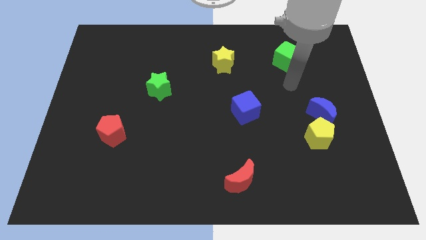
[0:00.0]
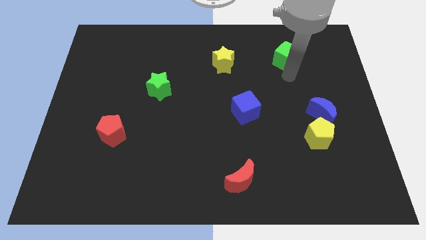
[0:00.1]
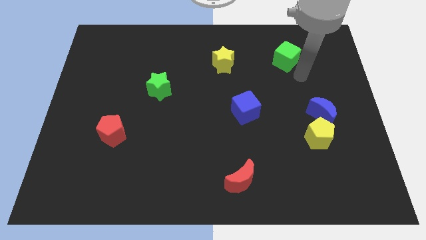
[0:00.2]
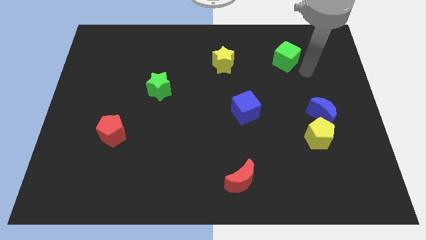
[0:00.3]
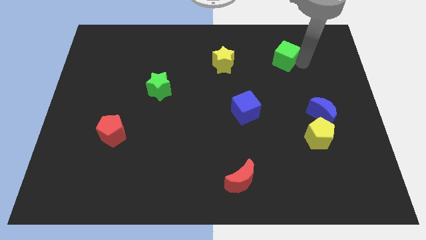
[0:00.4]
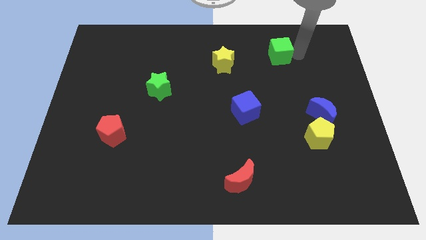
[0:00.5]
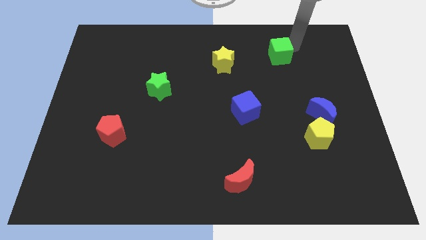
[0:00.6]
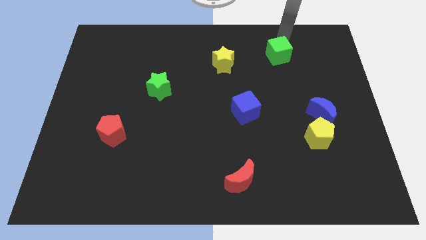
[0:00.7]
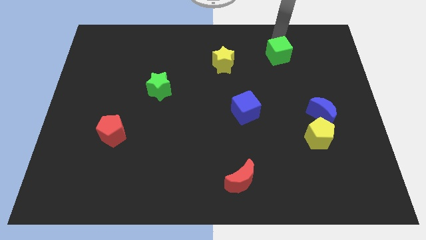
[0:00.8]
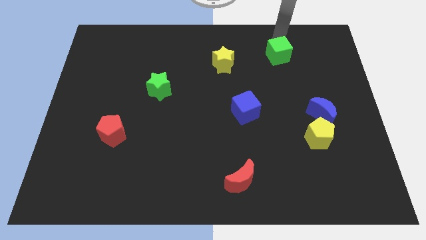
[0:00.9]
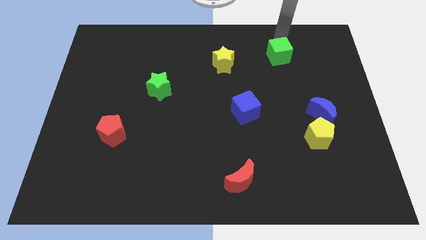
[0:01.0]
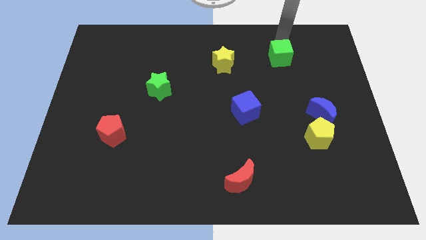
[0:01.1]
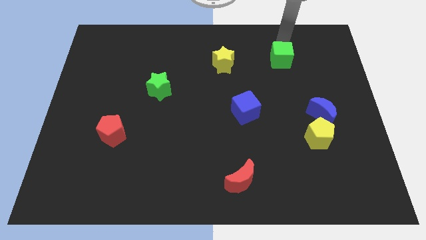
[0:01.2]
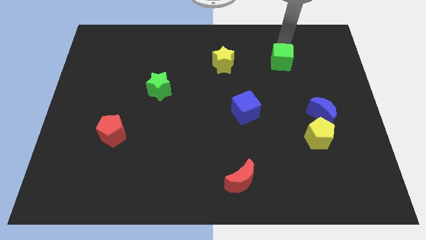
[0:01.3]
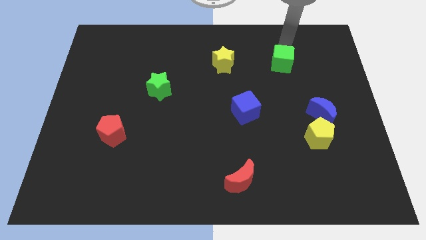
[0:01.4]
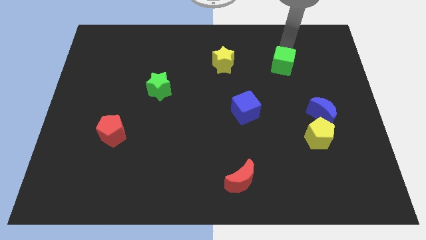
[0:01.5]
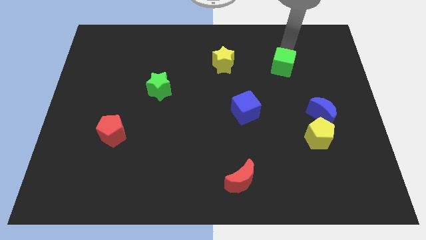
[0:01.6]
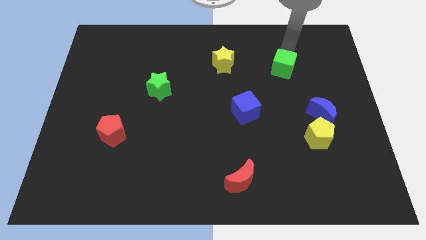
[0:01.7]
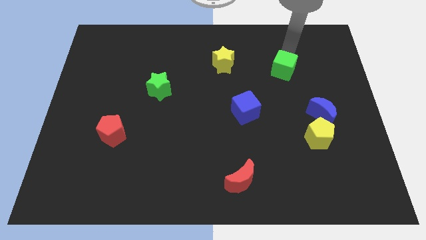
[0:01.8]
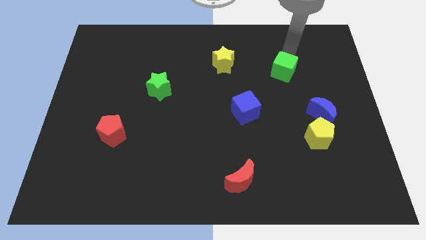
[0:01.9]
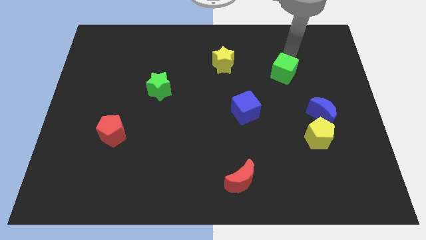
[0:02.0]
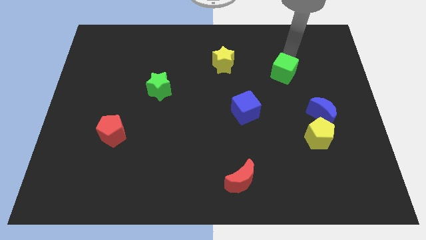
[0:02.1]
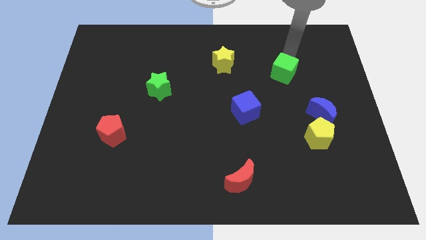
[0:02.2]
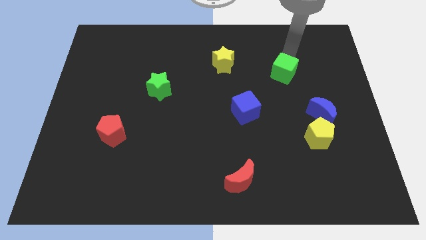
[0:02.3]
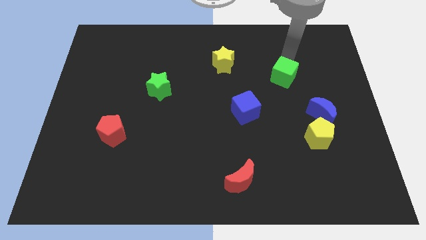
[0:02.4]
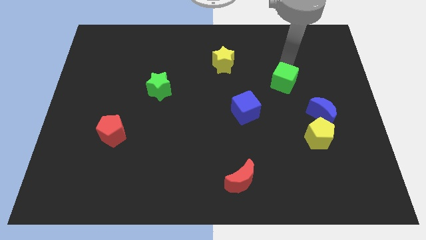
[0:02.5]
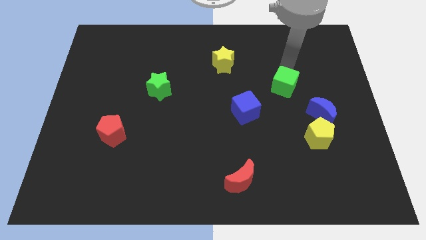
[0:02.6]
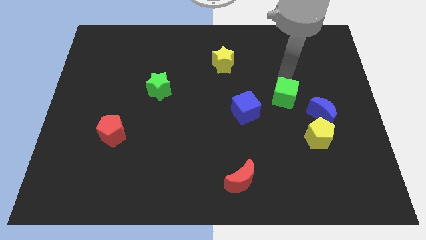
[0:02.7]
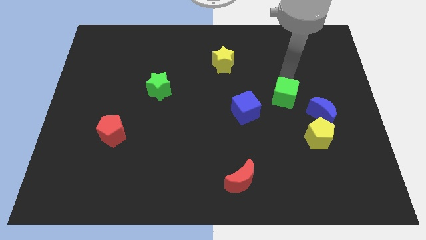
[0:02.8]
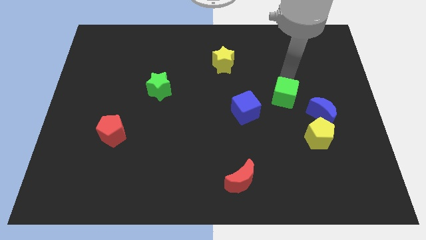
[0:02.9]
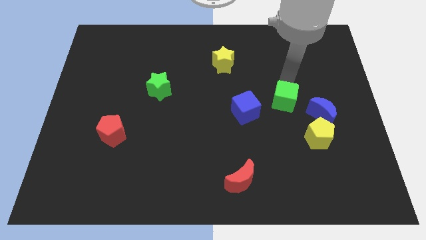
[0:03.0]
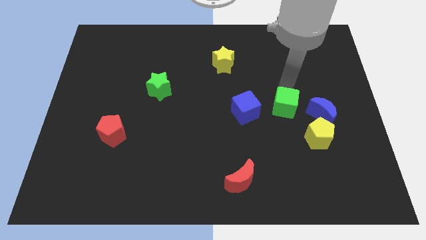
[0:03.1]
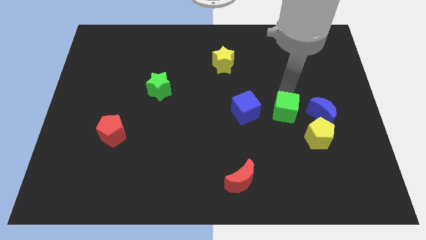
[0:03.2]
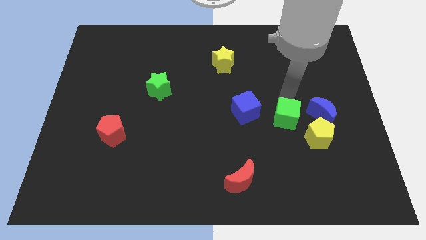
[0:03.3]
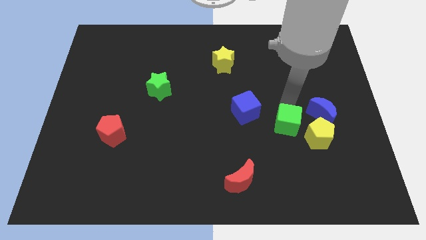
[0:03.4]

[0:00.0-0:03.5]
push the green cube downwards

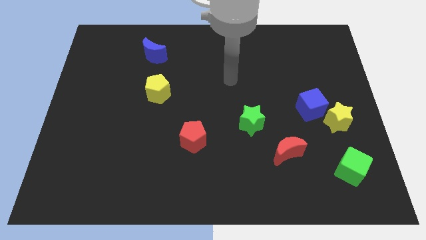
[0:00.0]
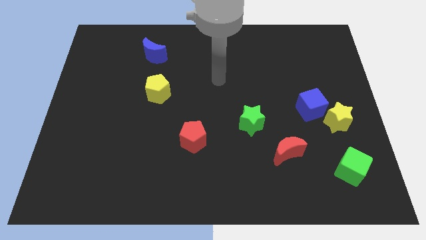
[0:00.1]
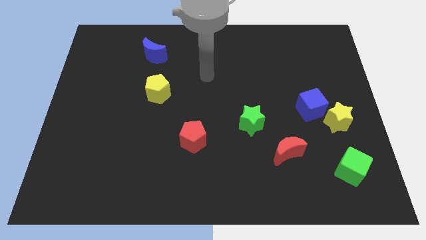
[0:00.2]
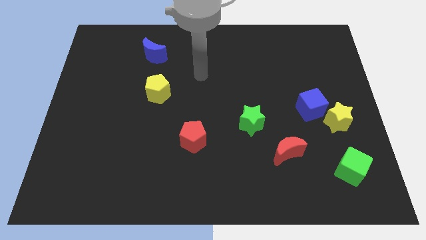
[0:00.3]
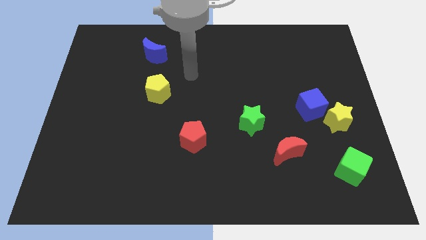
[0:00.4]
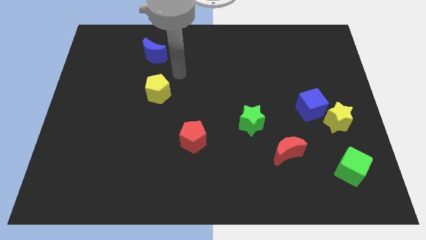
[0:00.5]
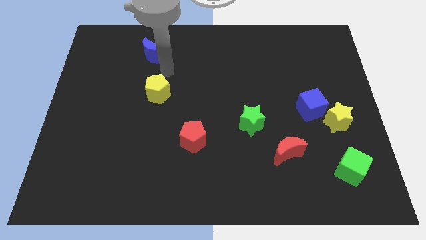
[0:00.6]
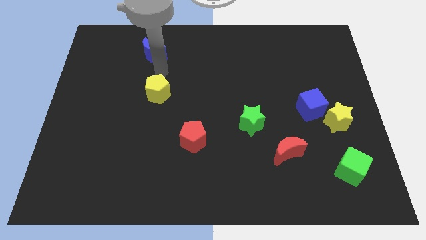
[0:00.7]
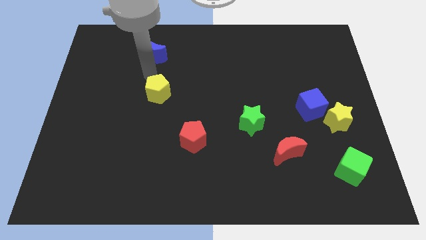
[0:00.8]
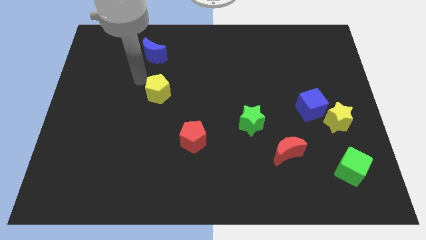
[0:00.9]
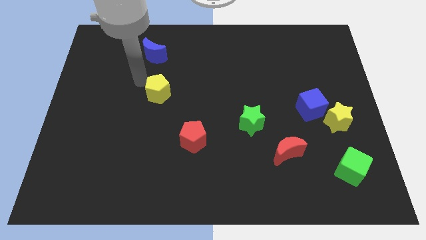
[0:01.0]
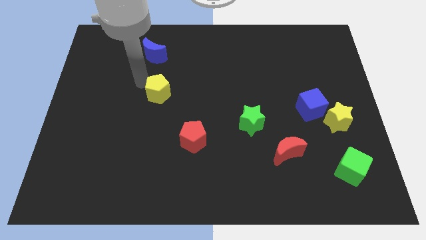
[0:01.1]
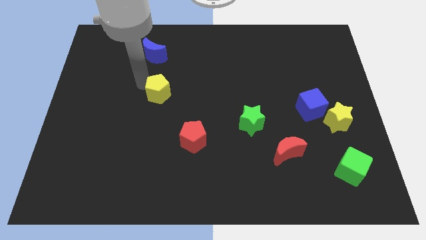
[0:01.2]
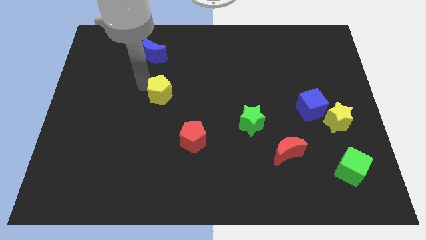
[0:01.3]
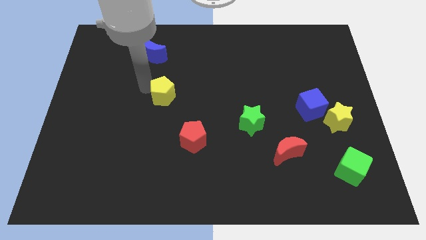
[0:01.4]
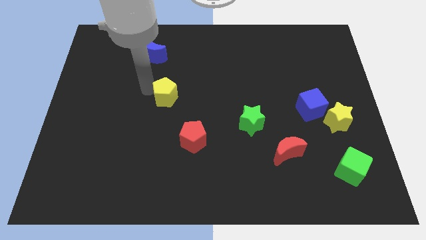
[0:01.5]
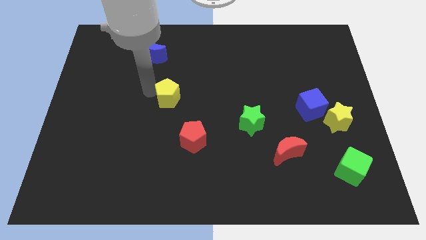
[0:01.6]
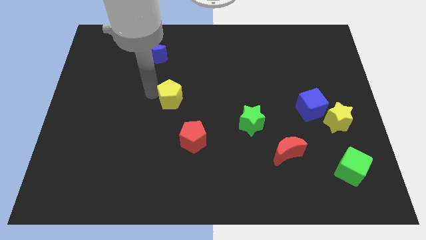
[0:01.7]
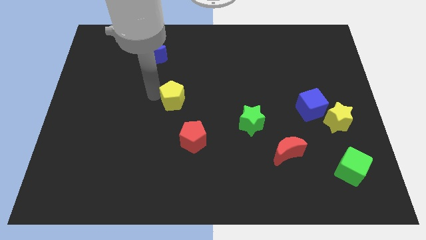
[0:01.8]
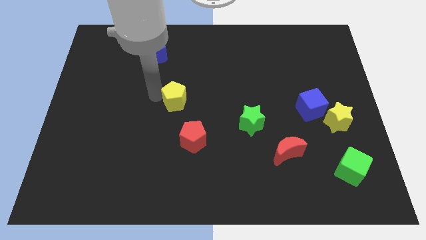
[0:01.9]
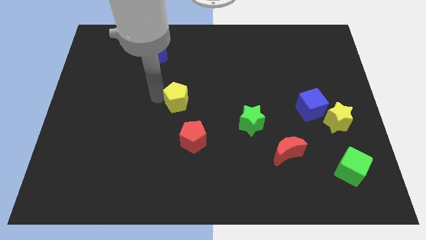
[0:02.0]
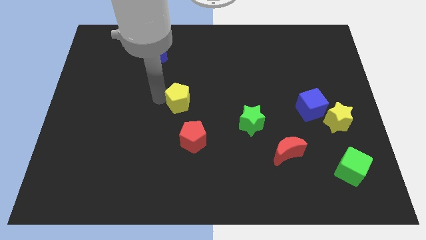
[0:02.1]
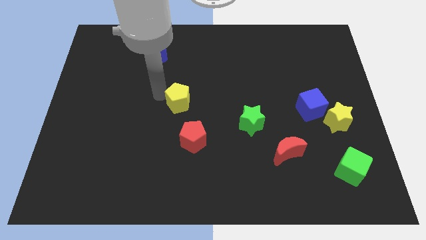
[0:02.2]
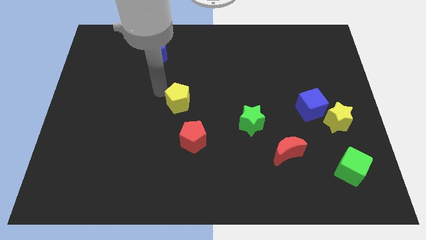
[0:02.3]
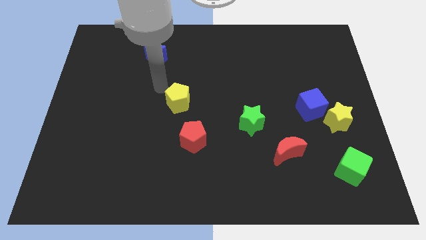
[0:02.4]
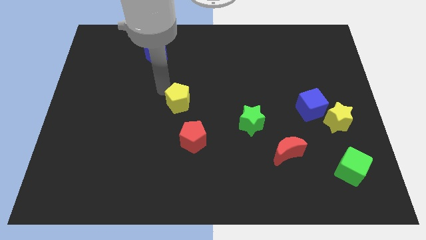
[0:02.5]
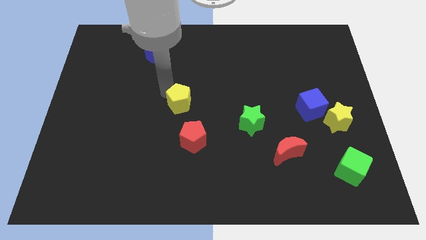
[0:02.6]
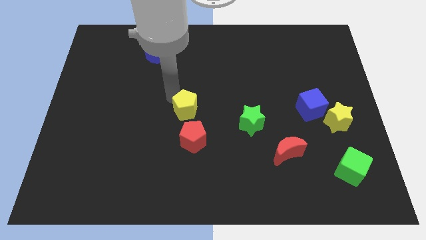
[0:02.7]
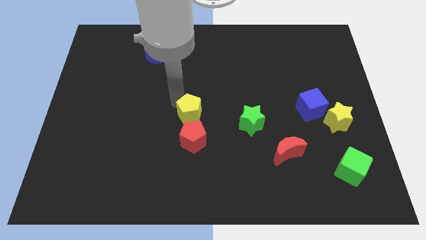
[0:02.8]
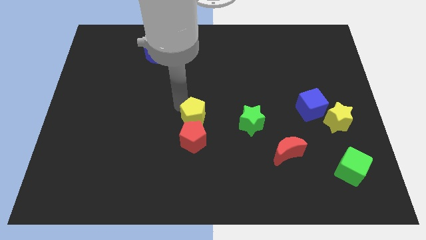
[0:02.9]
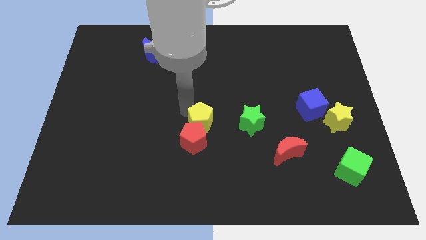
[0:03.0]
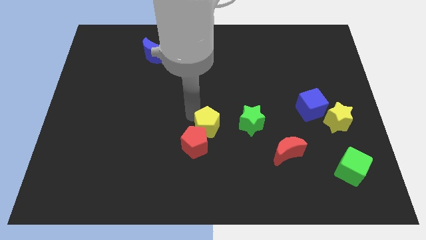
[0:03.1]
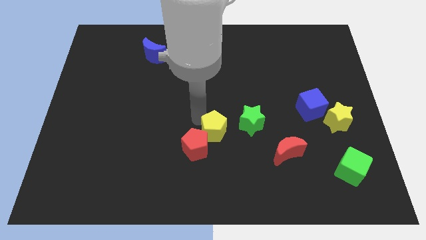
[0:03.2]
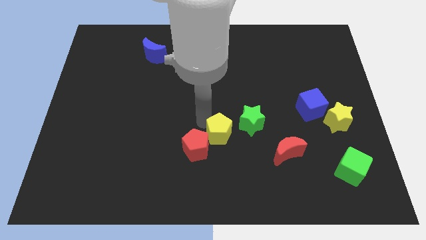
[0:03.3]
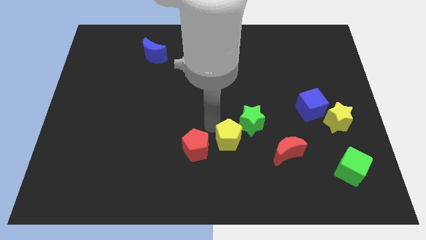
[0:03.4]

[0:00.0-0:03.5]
push the yellow pentagon diagonally down and to the right

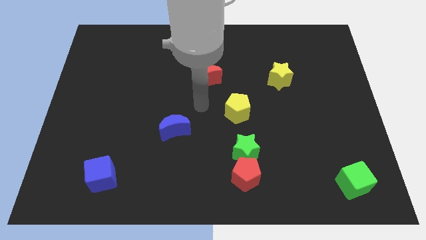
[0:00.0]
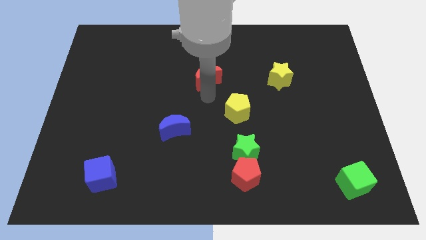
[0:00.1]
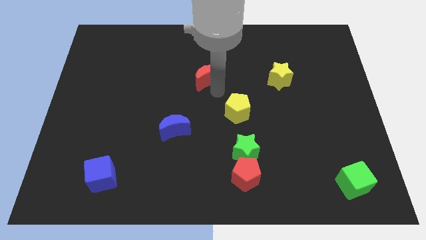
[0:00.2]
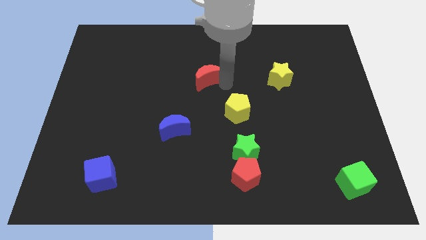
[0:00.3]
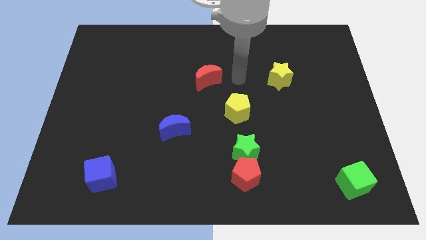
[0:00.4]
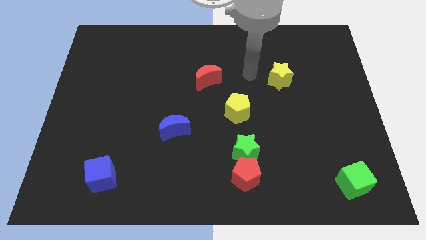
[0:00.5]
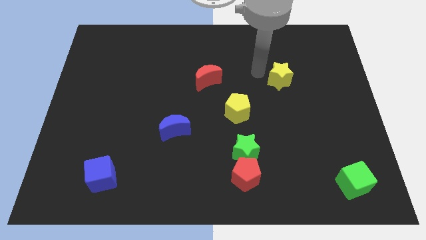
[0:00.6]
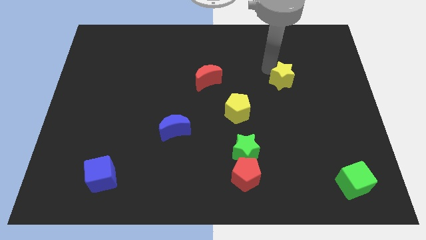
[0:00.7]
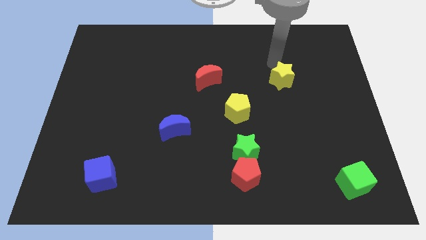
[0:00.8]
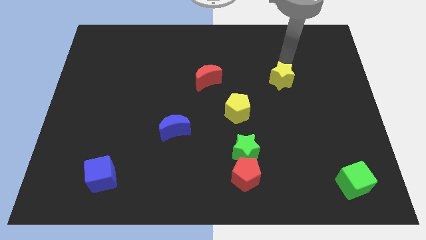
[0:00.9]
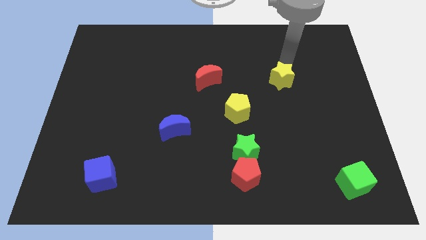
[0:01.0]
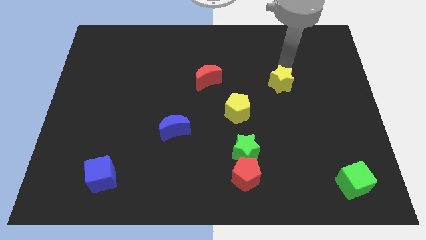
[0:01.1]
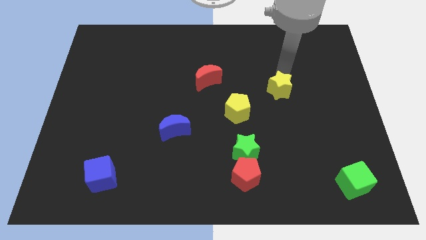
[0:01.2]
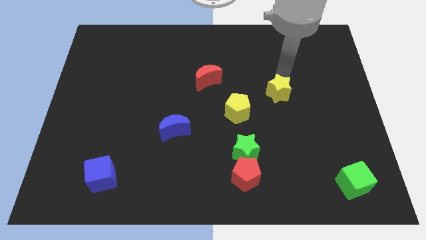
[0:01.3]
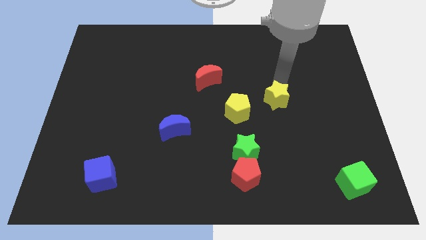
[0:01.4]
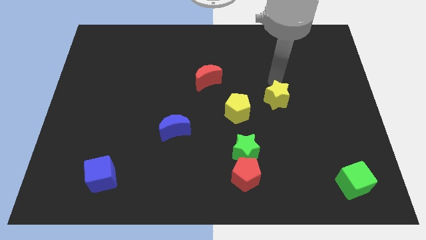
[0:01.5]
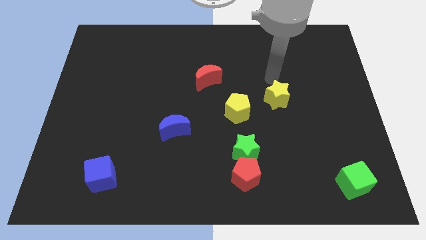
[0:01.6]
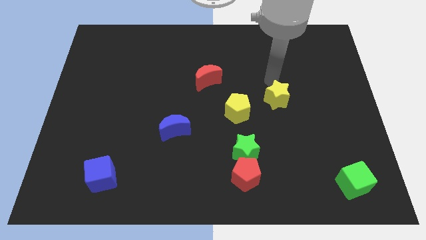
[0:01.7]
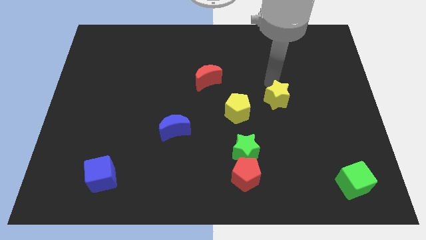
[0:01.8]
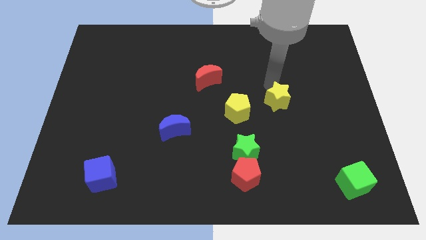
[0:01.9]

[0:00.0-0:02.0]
slide the yellow star a little bit downwards
